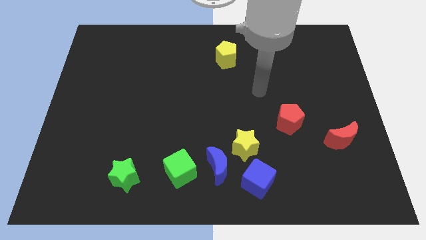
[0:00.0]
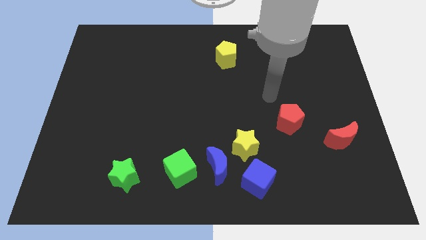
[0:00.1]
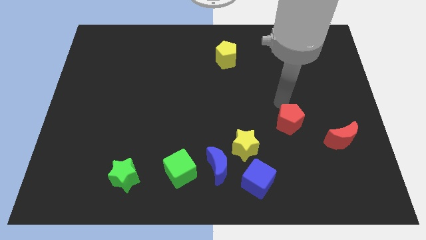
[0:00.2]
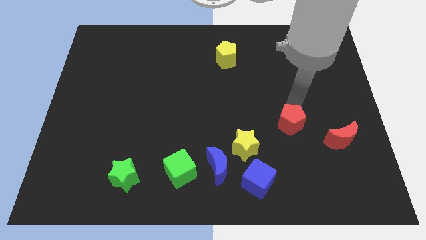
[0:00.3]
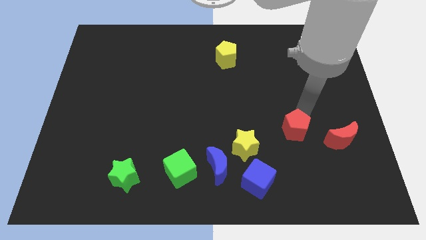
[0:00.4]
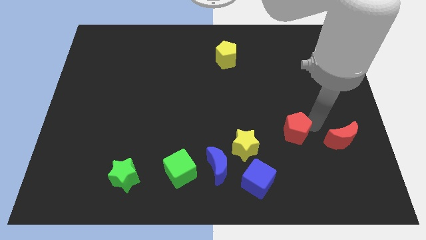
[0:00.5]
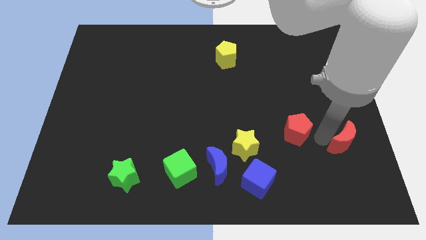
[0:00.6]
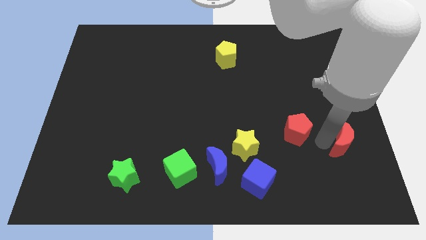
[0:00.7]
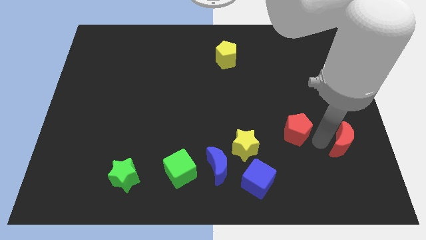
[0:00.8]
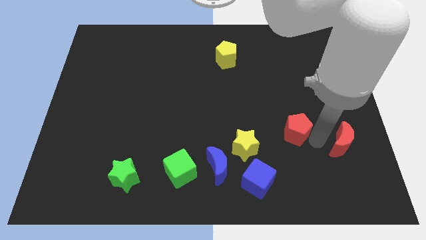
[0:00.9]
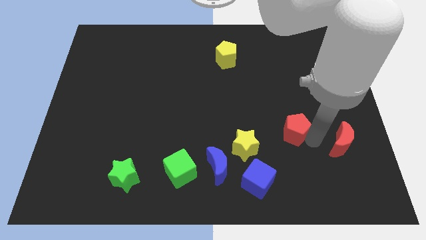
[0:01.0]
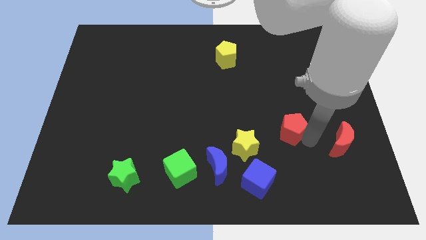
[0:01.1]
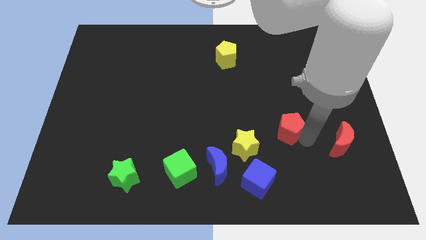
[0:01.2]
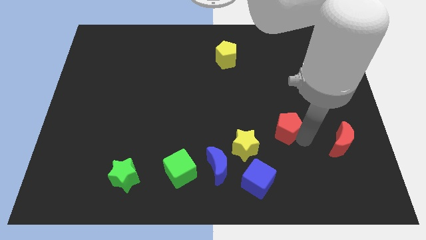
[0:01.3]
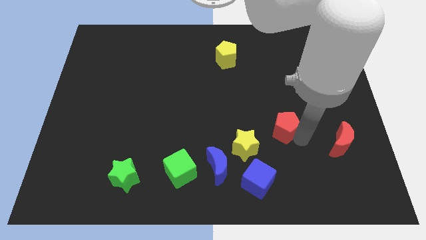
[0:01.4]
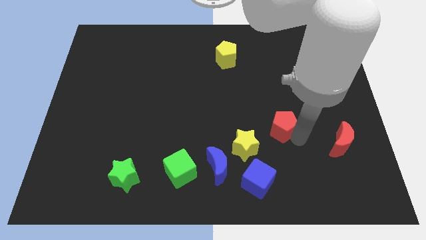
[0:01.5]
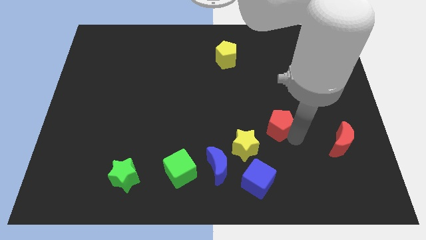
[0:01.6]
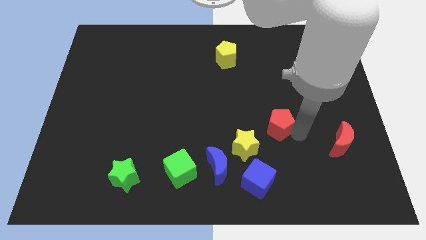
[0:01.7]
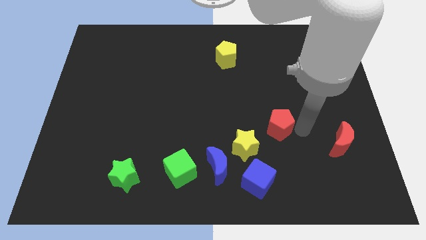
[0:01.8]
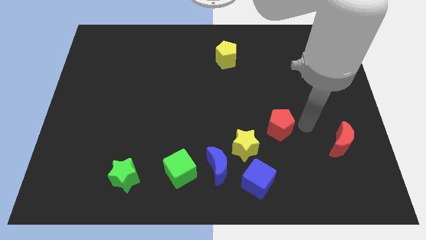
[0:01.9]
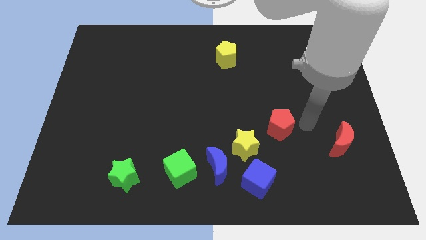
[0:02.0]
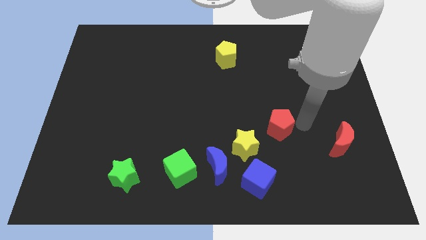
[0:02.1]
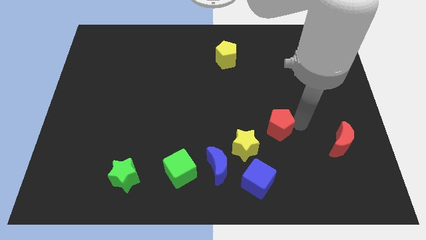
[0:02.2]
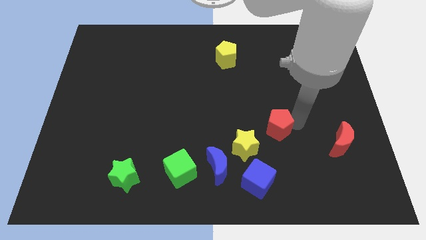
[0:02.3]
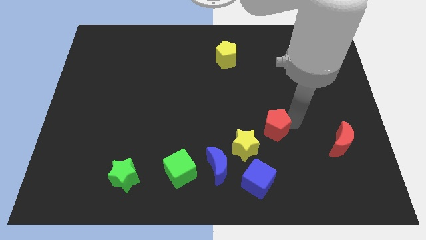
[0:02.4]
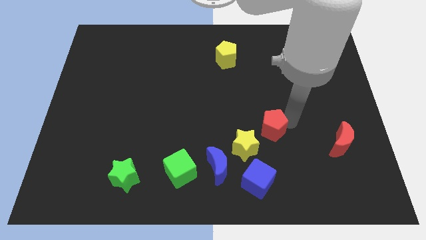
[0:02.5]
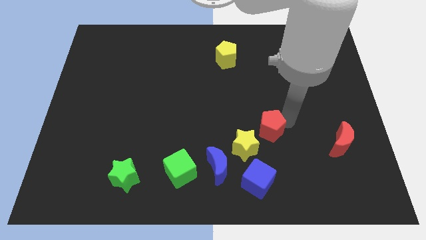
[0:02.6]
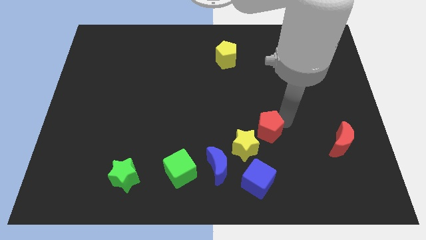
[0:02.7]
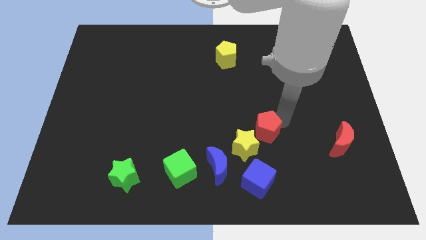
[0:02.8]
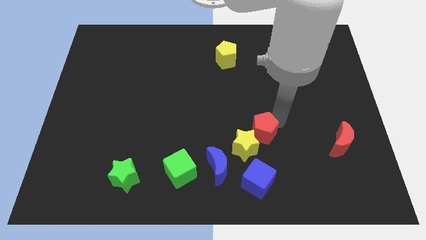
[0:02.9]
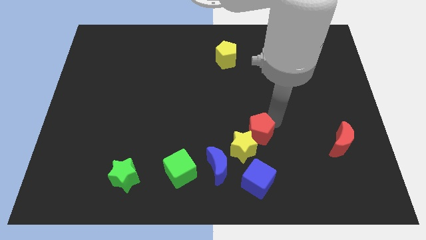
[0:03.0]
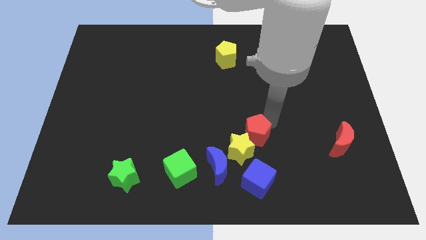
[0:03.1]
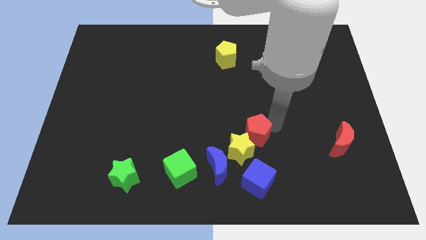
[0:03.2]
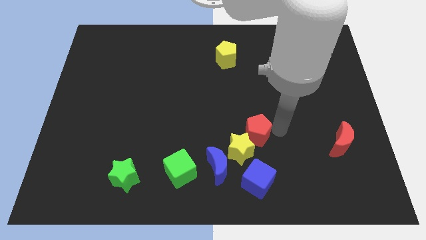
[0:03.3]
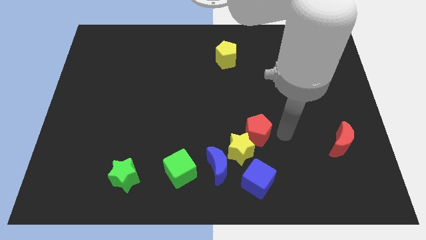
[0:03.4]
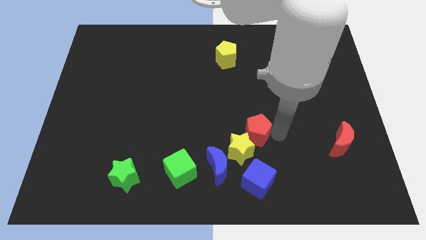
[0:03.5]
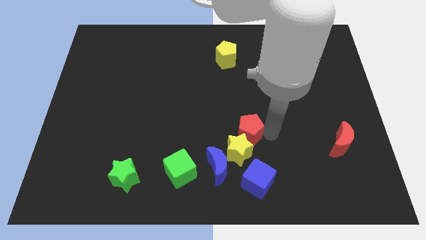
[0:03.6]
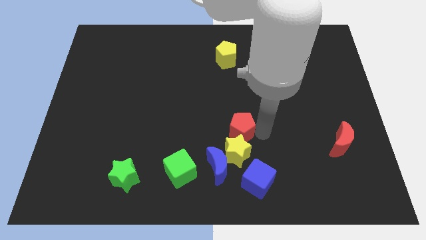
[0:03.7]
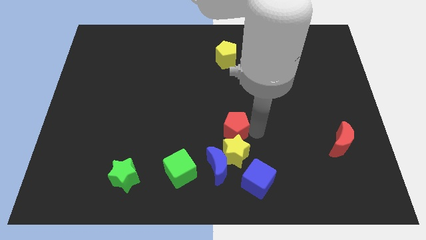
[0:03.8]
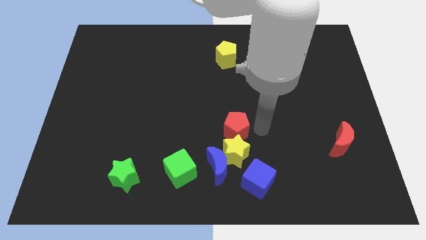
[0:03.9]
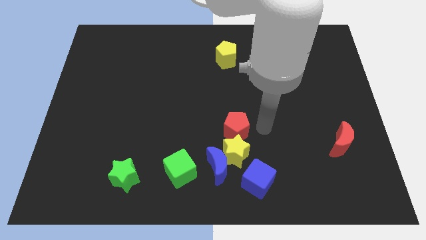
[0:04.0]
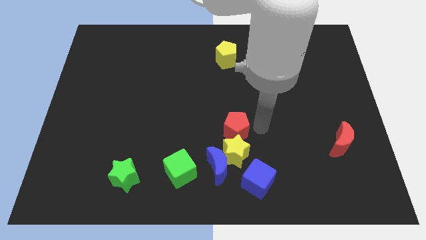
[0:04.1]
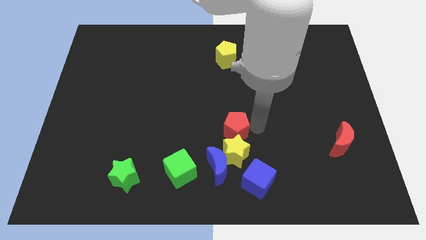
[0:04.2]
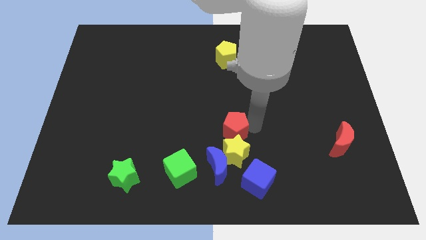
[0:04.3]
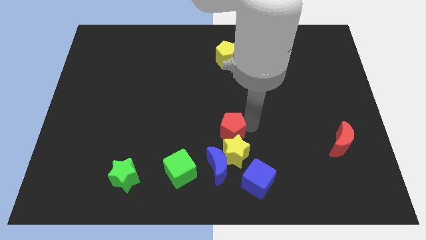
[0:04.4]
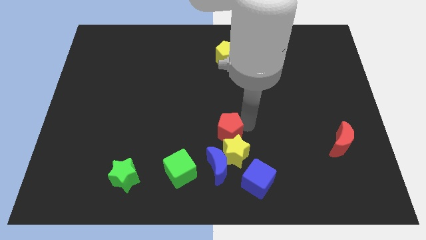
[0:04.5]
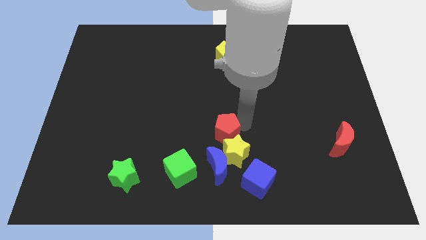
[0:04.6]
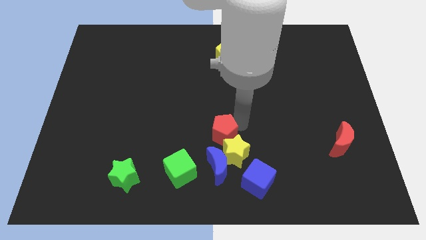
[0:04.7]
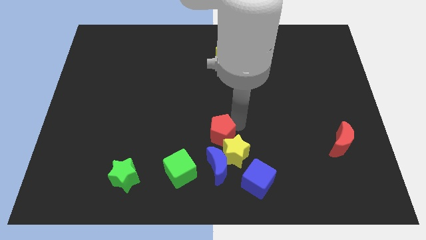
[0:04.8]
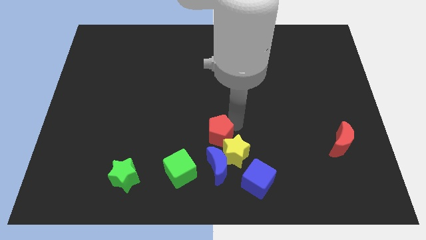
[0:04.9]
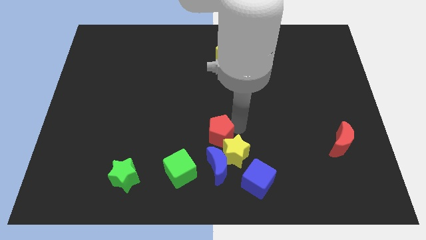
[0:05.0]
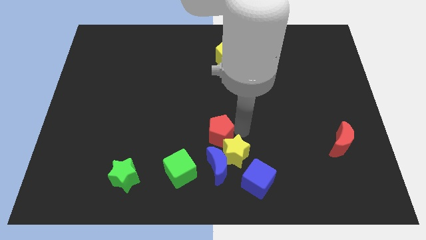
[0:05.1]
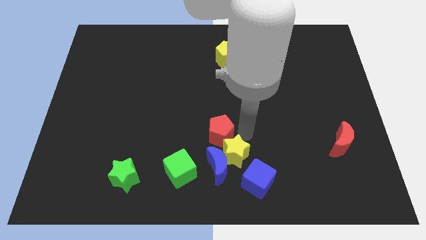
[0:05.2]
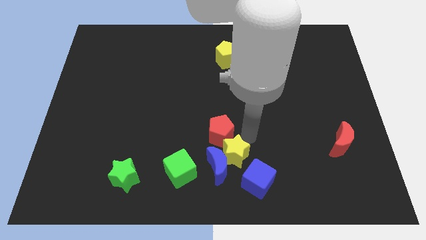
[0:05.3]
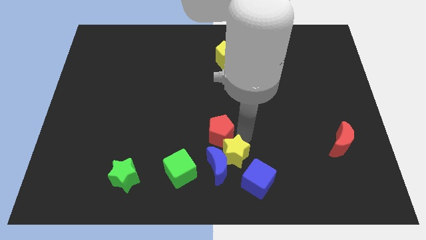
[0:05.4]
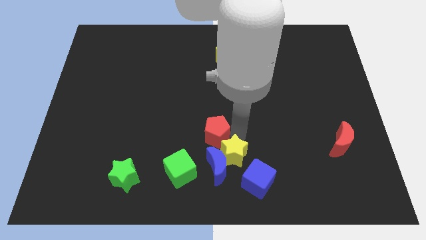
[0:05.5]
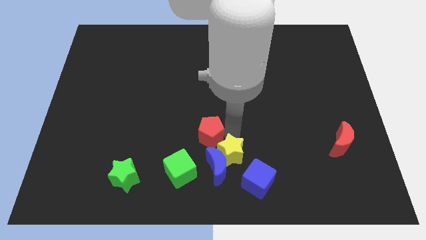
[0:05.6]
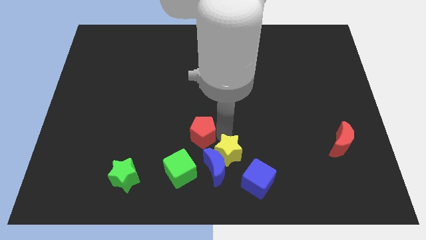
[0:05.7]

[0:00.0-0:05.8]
put the red pentagon to the top side of the green cube

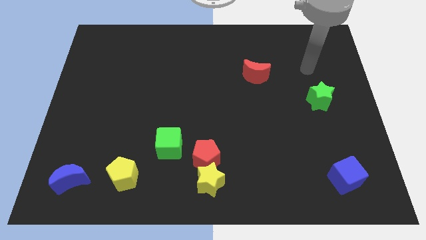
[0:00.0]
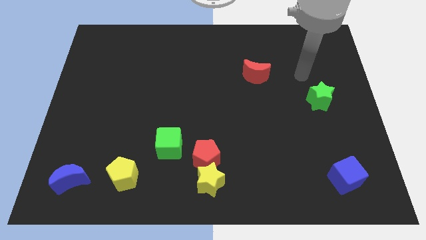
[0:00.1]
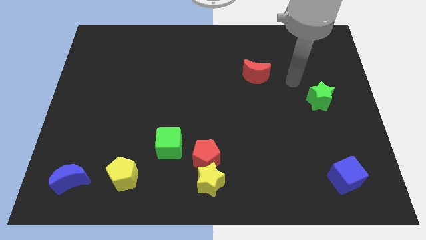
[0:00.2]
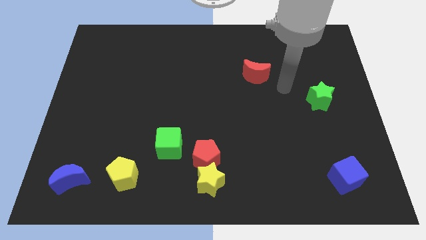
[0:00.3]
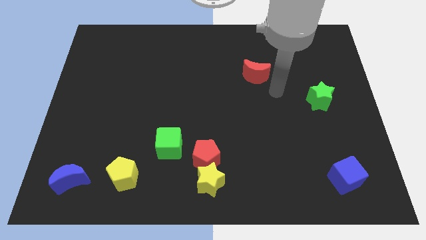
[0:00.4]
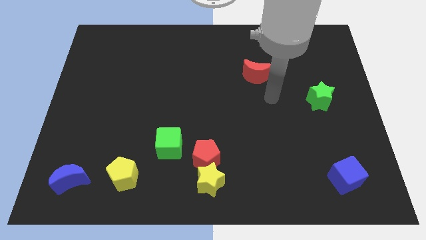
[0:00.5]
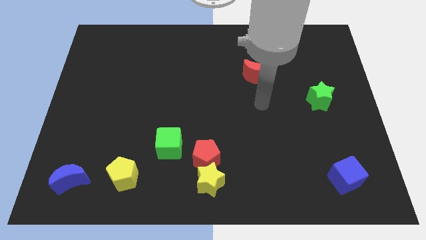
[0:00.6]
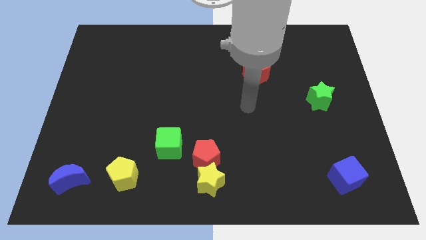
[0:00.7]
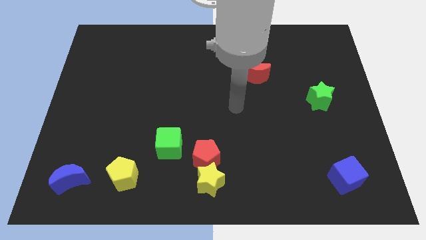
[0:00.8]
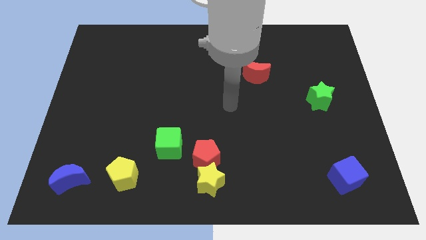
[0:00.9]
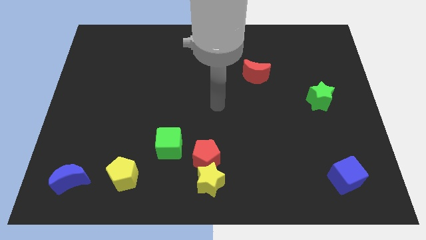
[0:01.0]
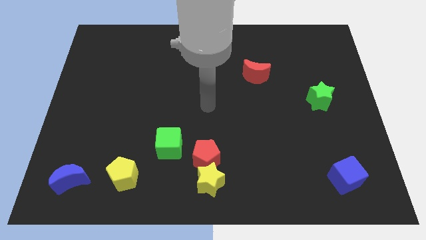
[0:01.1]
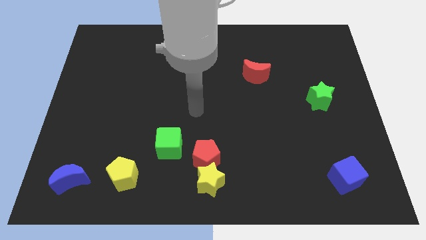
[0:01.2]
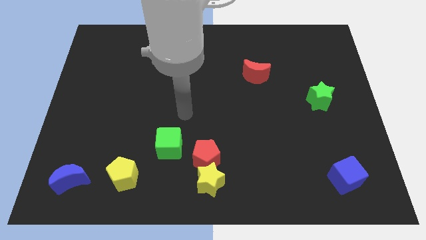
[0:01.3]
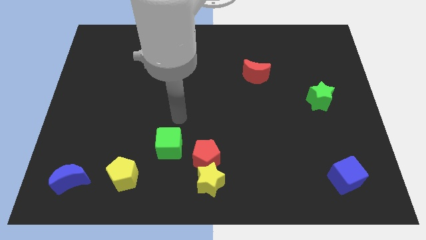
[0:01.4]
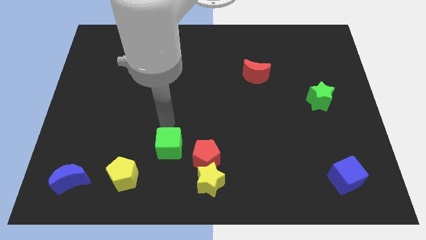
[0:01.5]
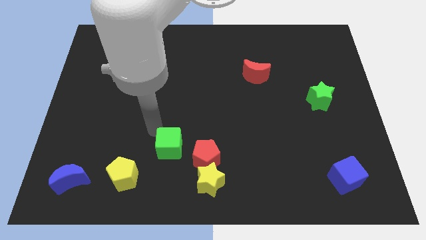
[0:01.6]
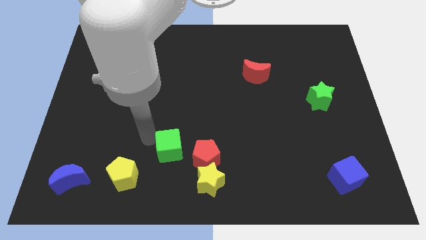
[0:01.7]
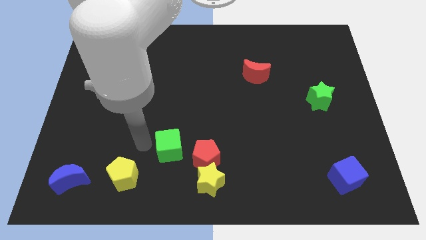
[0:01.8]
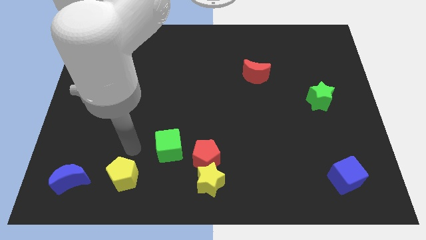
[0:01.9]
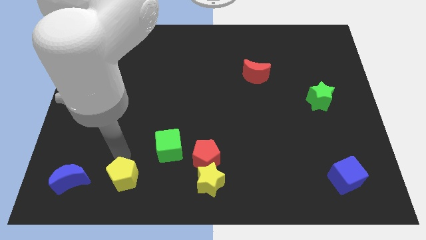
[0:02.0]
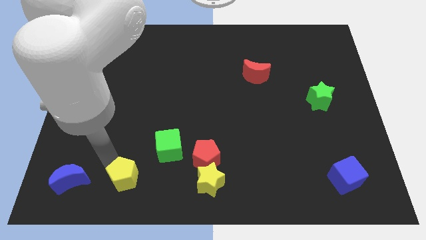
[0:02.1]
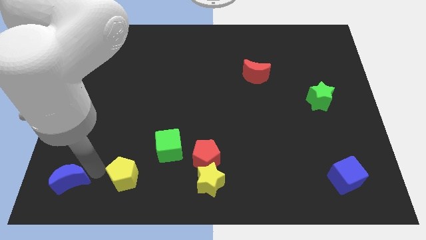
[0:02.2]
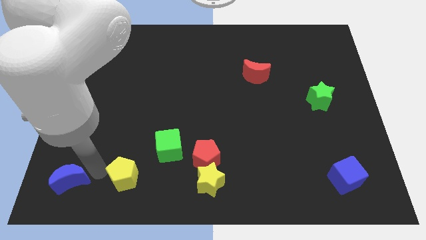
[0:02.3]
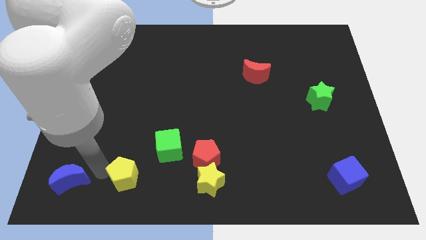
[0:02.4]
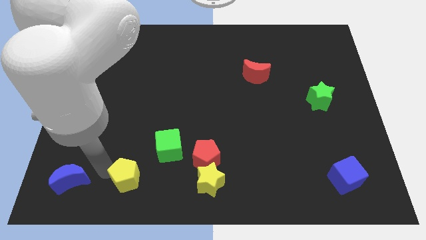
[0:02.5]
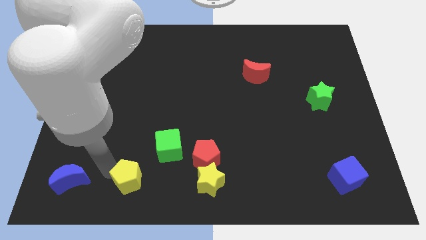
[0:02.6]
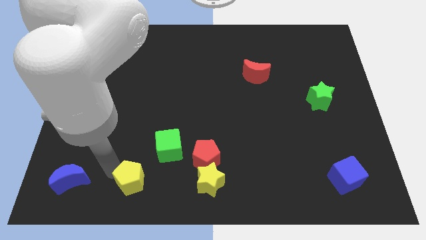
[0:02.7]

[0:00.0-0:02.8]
push the yellow pentagon just left of the yellow star
